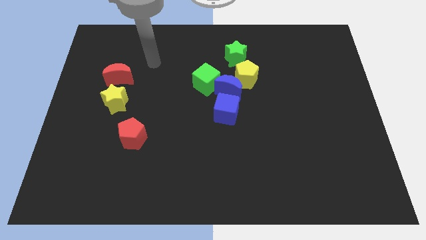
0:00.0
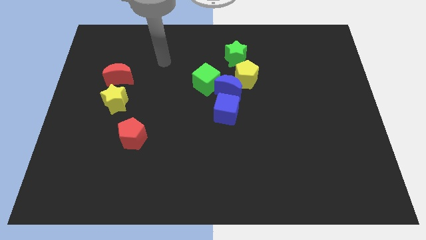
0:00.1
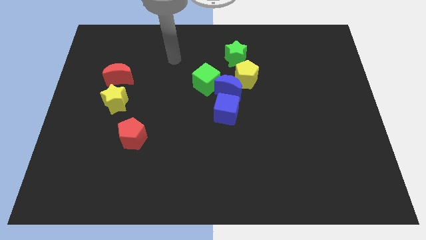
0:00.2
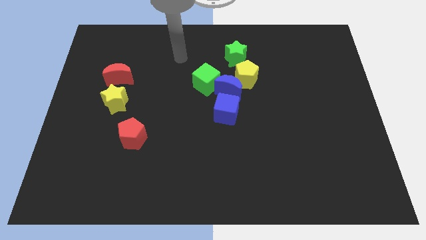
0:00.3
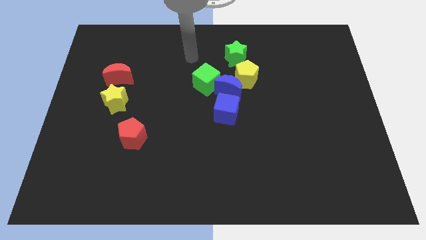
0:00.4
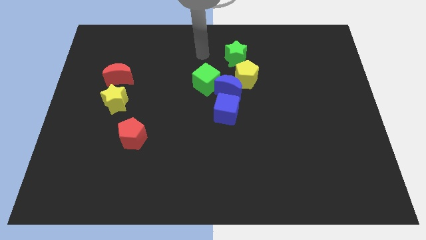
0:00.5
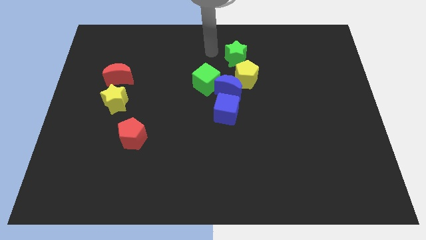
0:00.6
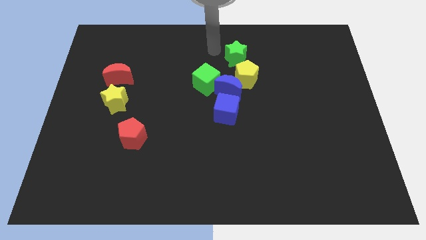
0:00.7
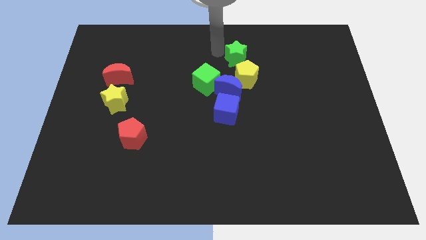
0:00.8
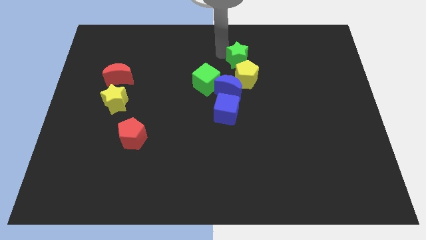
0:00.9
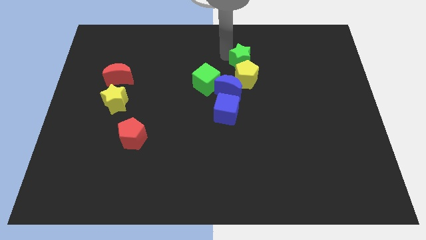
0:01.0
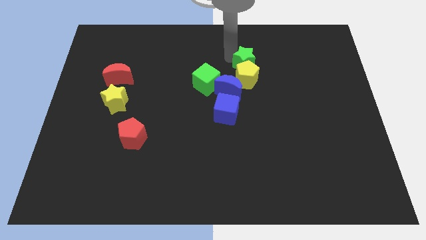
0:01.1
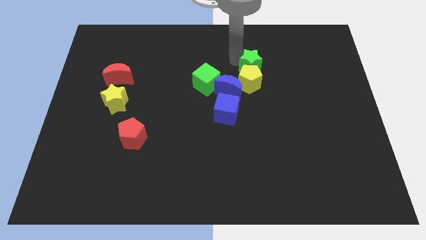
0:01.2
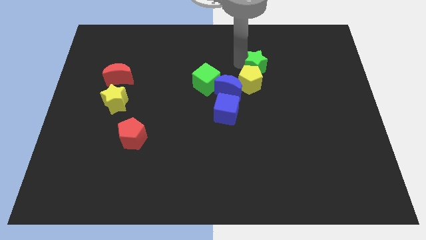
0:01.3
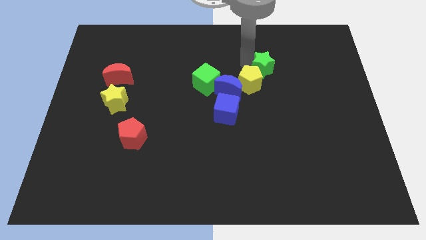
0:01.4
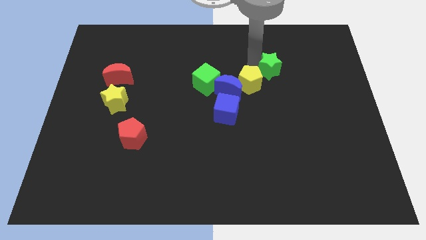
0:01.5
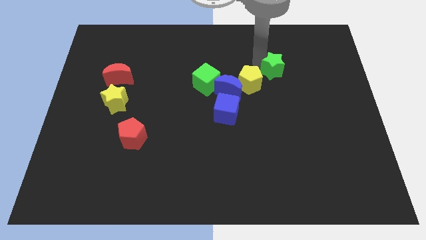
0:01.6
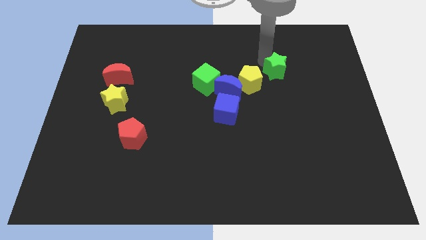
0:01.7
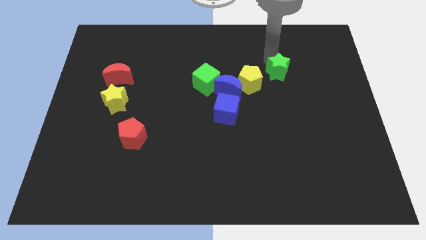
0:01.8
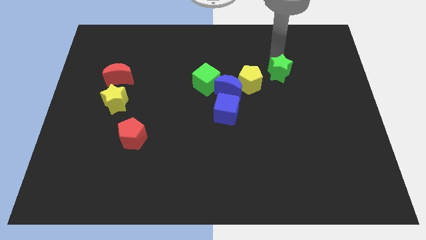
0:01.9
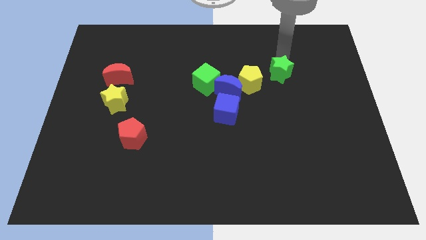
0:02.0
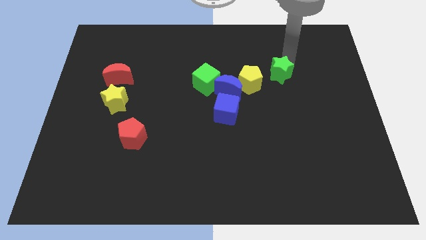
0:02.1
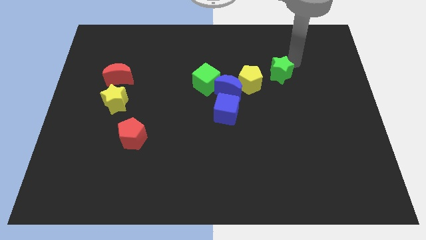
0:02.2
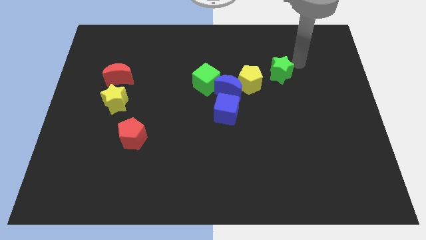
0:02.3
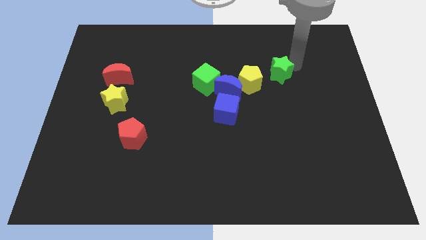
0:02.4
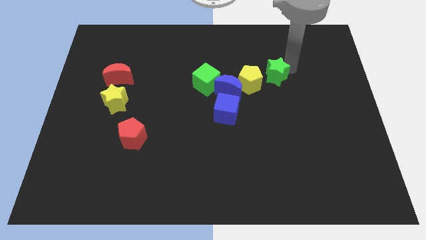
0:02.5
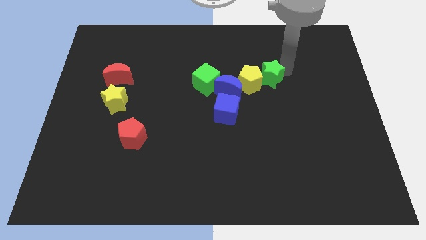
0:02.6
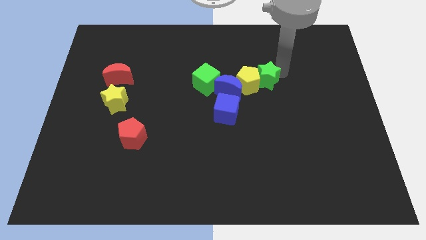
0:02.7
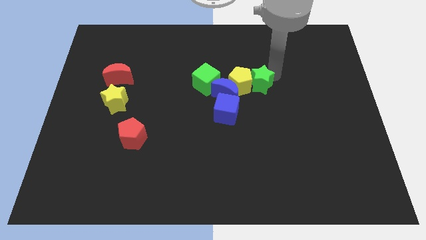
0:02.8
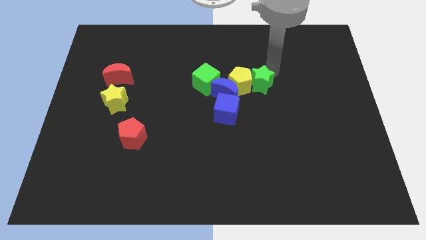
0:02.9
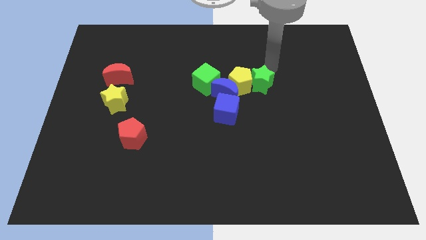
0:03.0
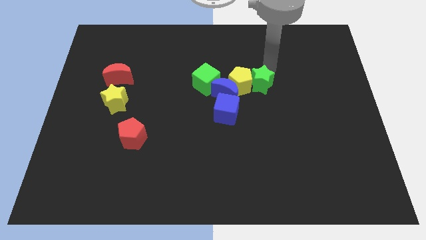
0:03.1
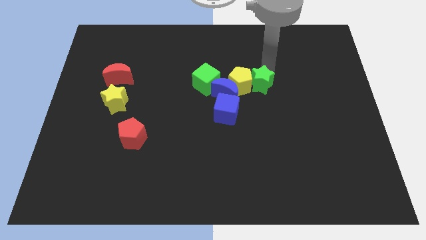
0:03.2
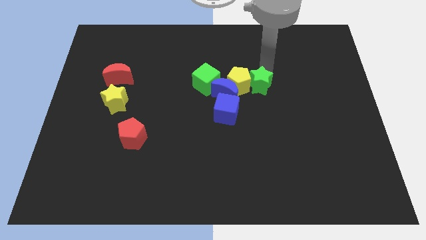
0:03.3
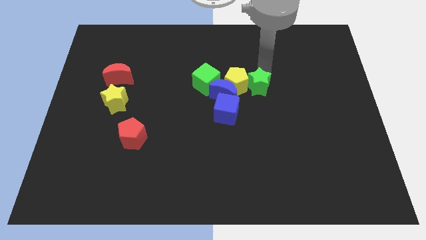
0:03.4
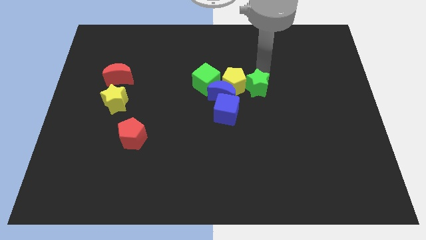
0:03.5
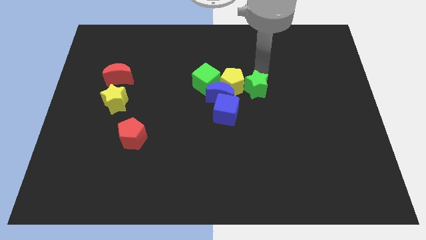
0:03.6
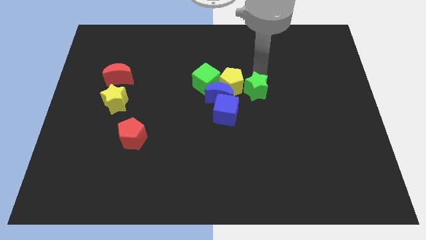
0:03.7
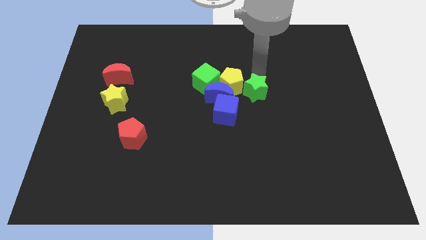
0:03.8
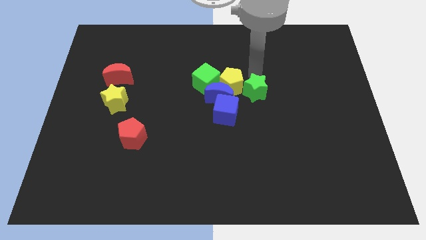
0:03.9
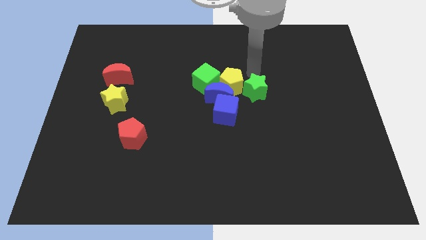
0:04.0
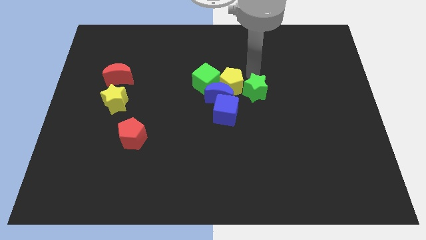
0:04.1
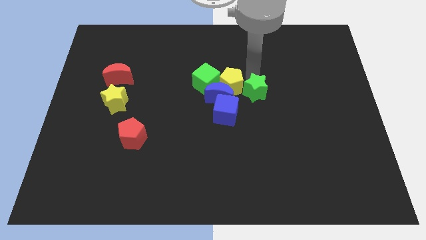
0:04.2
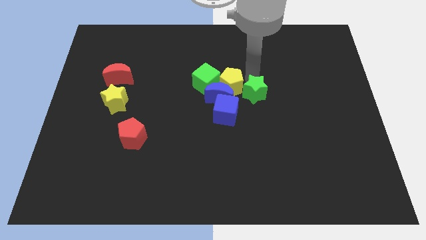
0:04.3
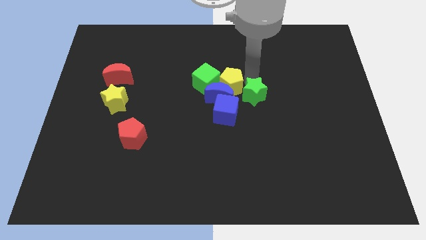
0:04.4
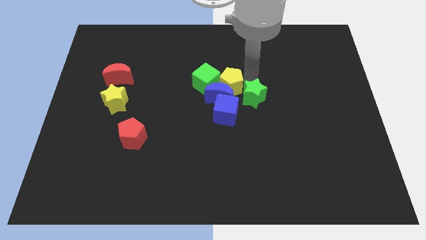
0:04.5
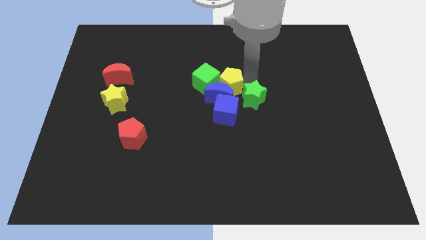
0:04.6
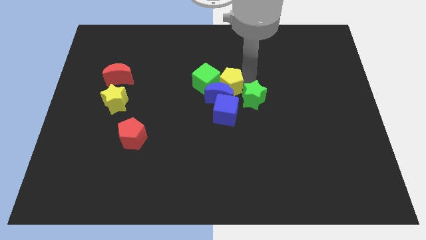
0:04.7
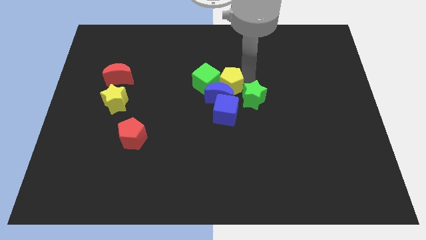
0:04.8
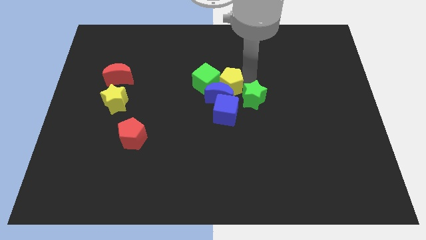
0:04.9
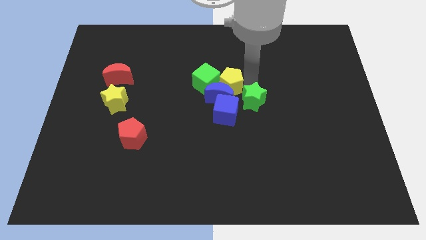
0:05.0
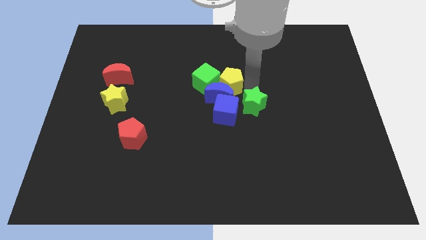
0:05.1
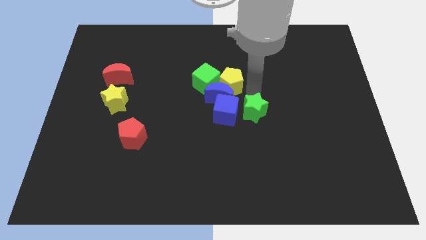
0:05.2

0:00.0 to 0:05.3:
slide the green star diagonally down and to the right of the blue cube

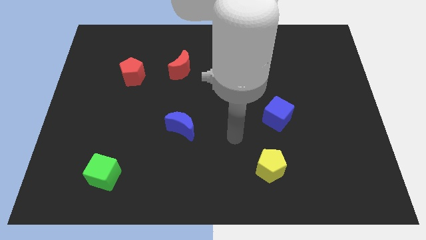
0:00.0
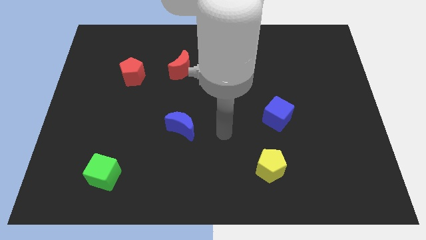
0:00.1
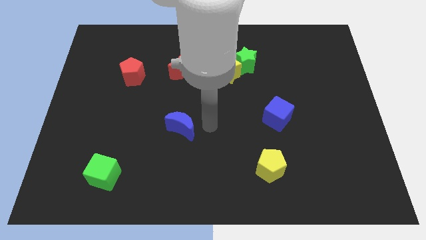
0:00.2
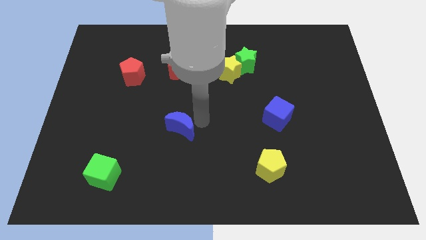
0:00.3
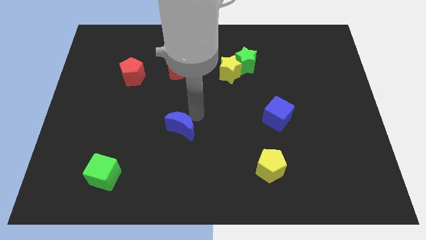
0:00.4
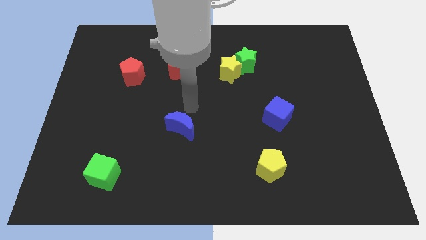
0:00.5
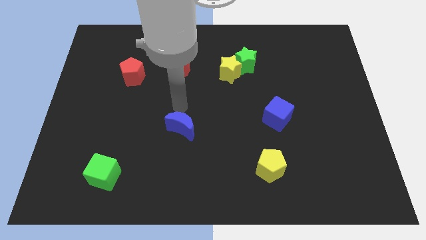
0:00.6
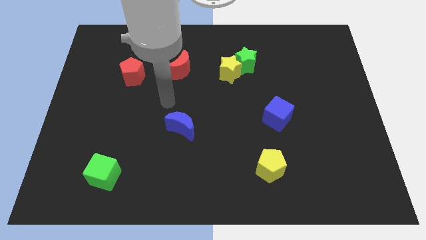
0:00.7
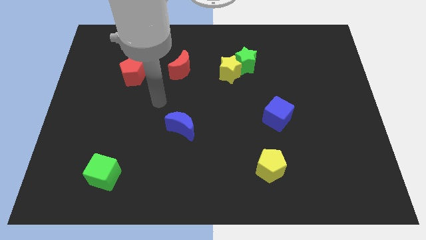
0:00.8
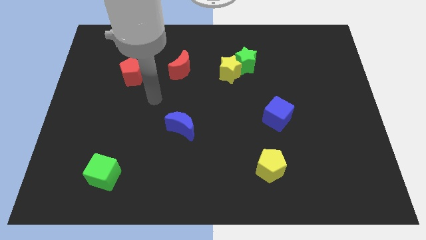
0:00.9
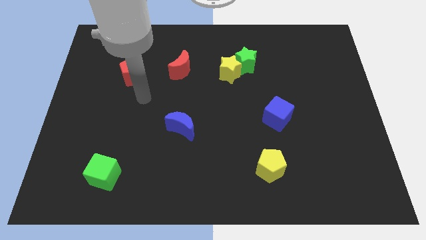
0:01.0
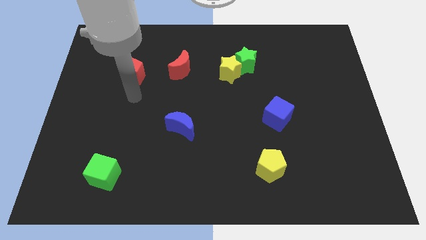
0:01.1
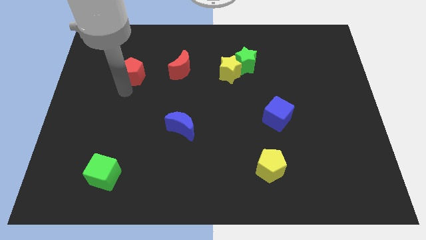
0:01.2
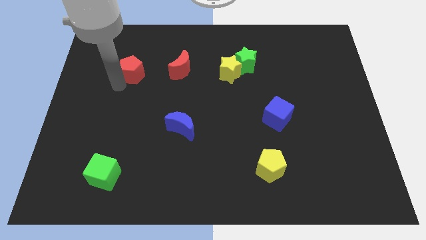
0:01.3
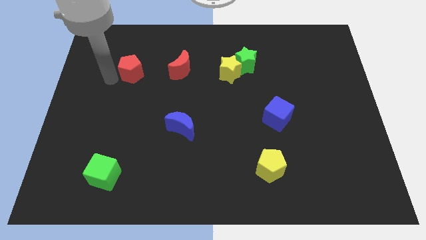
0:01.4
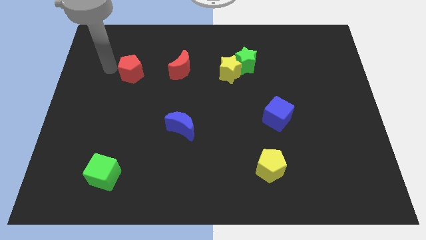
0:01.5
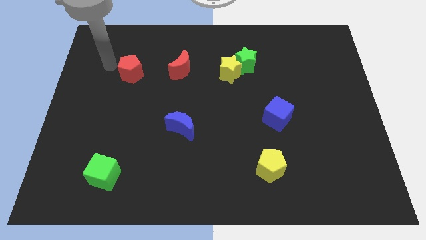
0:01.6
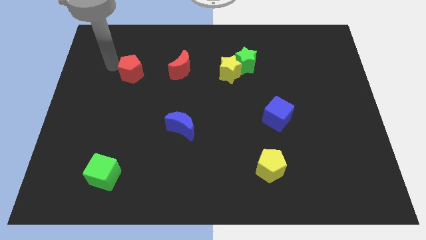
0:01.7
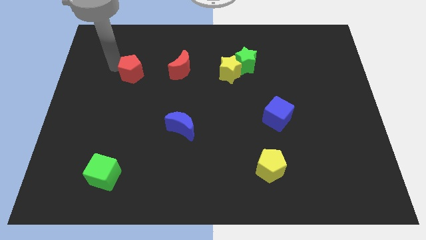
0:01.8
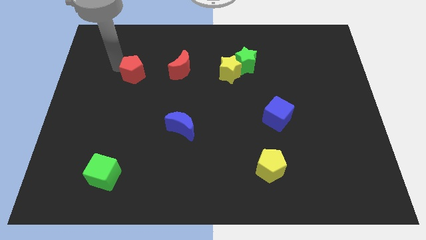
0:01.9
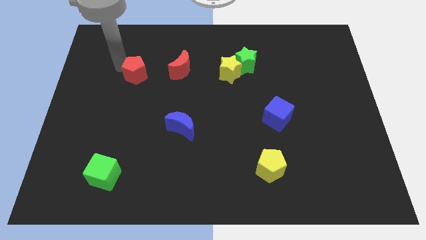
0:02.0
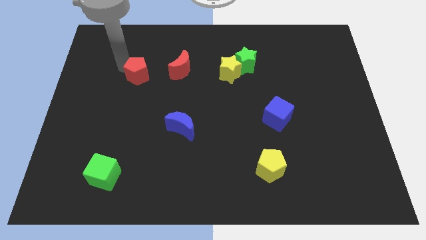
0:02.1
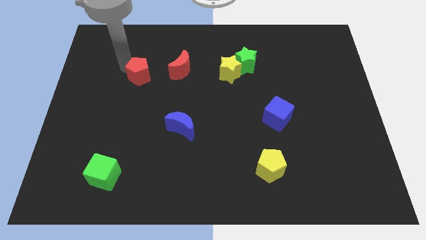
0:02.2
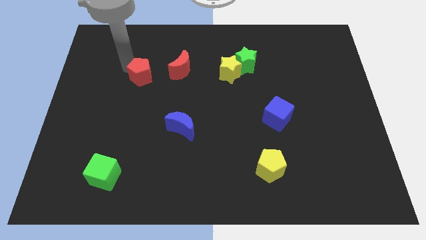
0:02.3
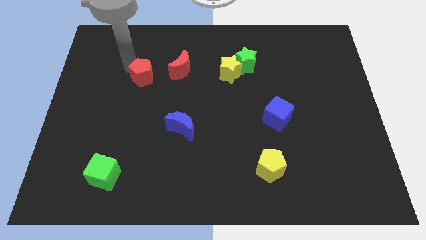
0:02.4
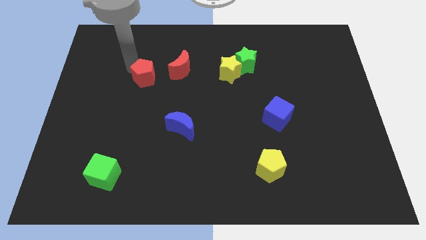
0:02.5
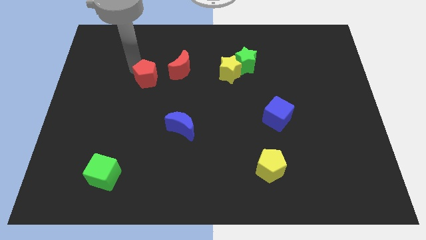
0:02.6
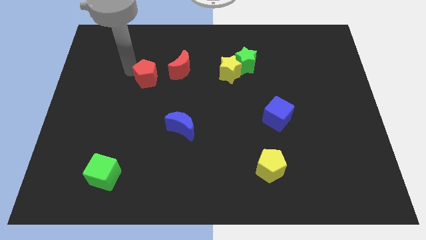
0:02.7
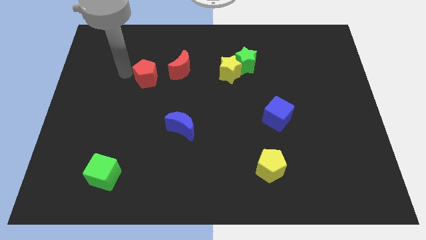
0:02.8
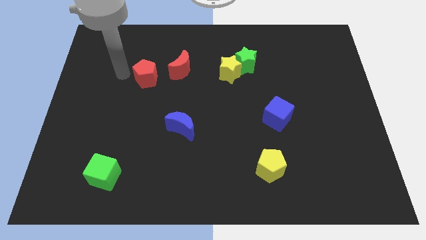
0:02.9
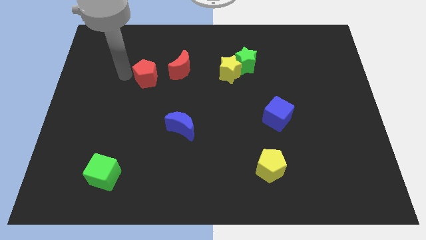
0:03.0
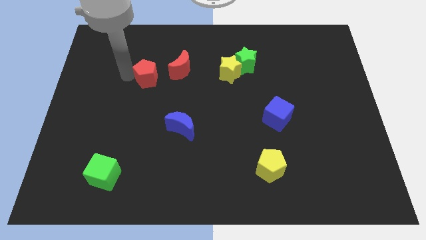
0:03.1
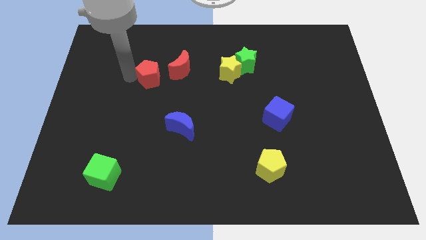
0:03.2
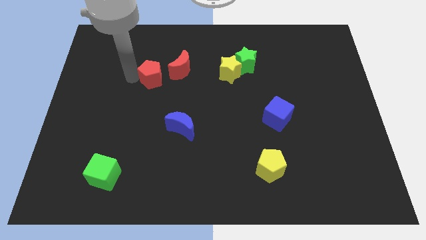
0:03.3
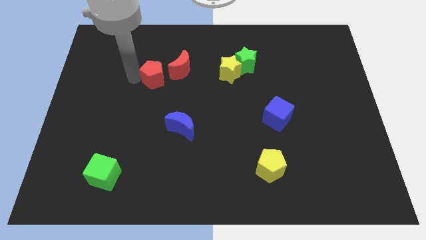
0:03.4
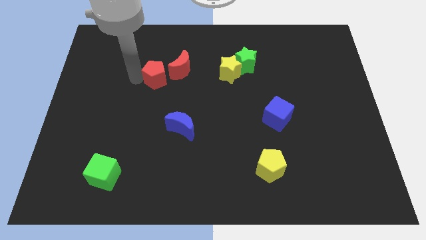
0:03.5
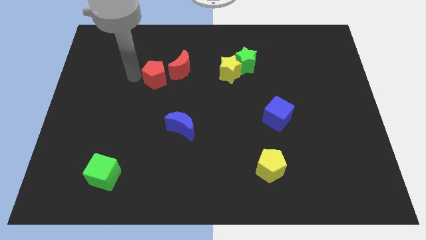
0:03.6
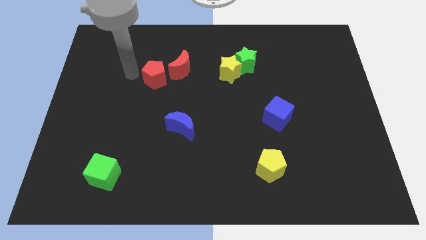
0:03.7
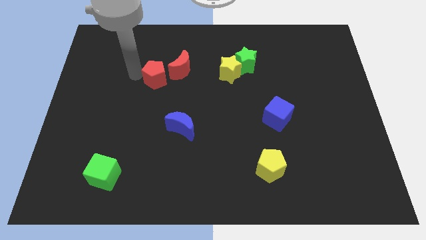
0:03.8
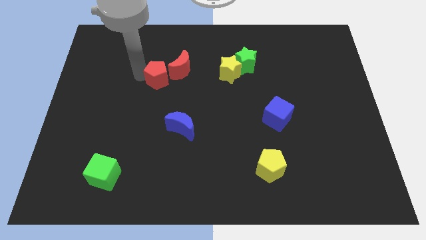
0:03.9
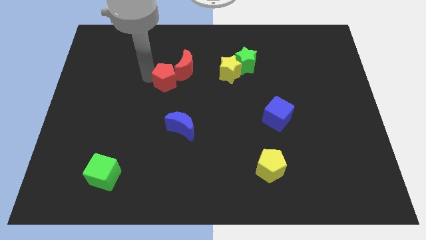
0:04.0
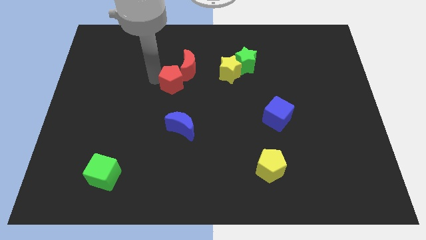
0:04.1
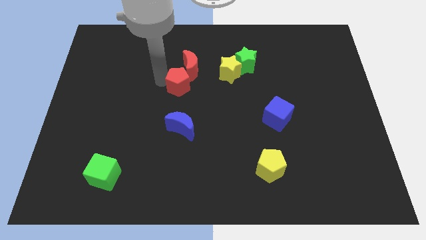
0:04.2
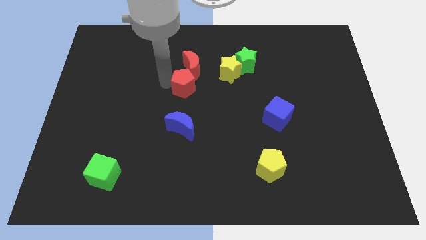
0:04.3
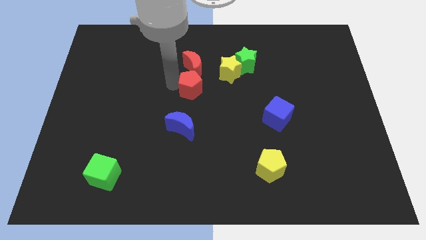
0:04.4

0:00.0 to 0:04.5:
slide the red pentagon to the bottom left side of the yellow star
